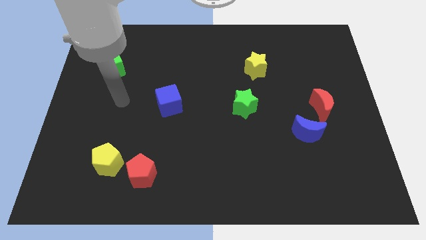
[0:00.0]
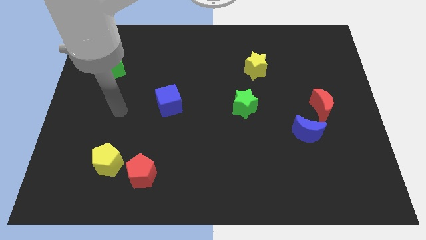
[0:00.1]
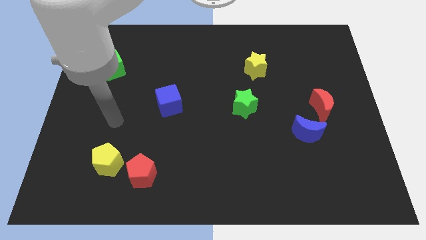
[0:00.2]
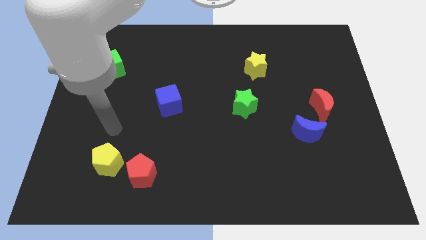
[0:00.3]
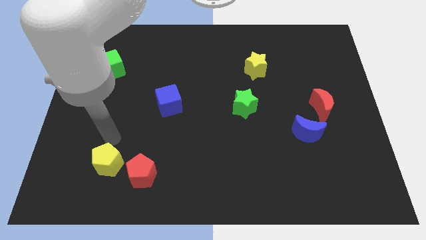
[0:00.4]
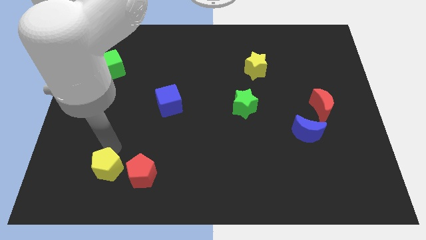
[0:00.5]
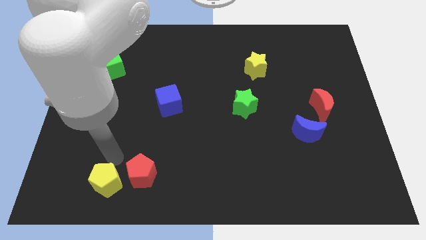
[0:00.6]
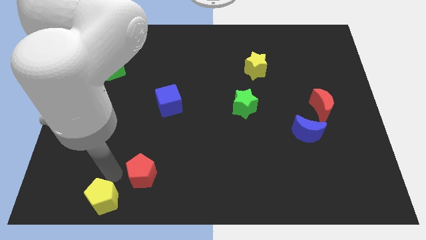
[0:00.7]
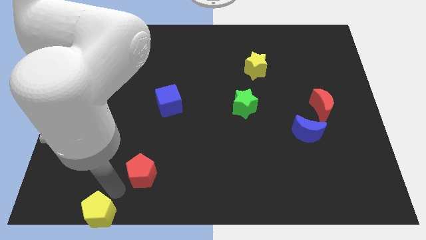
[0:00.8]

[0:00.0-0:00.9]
separate the red pentagon from the yellow pentagon

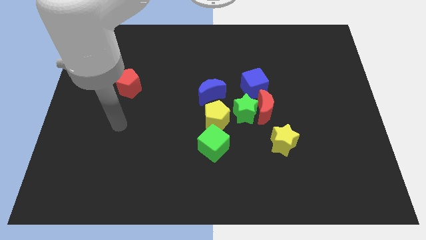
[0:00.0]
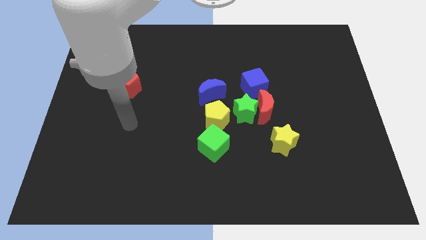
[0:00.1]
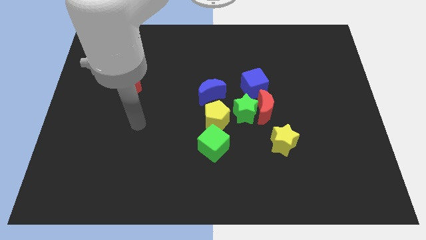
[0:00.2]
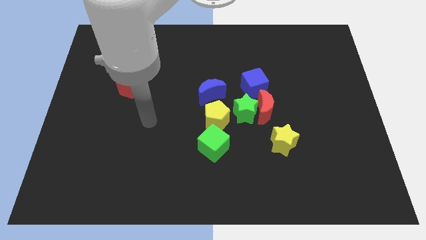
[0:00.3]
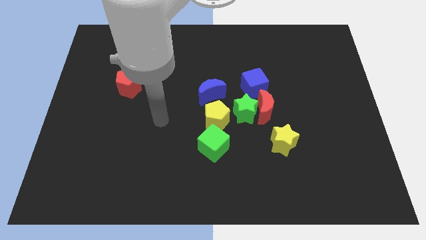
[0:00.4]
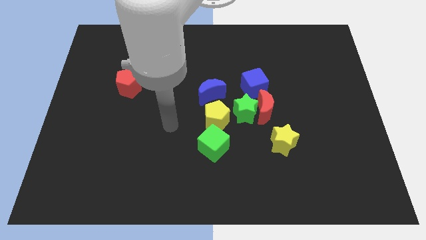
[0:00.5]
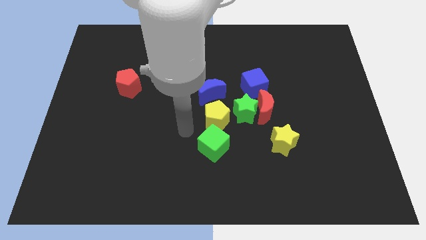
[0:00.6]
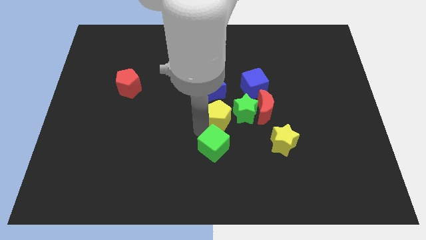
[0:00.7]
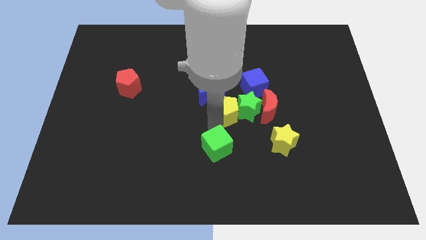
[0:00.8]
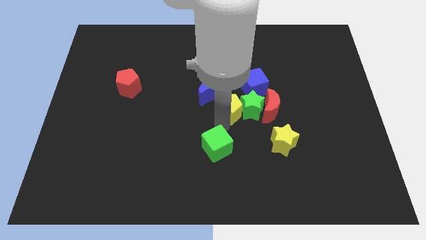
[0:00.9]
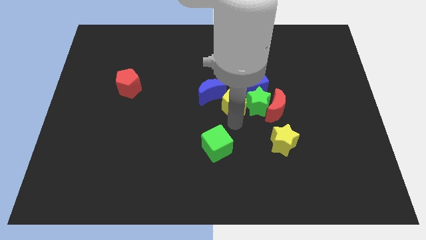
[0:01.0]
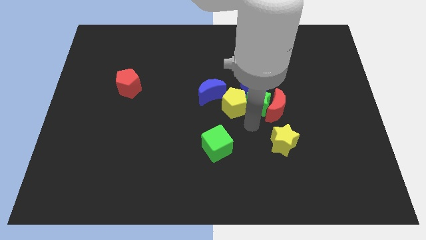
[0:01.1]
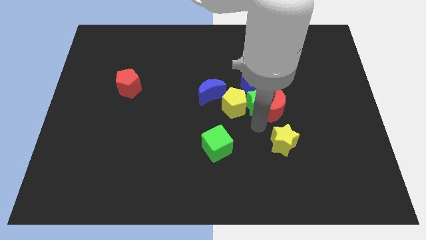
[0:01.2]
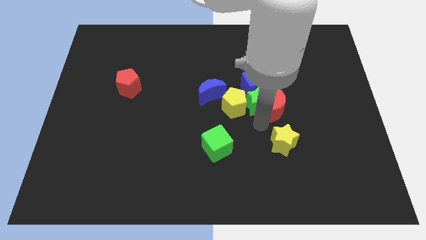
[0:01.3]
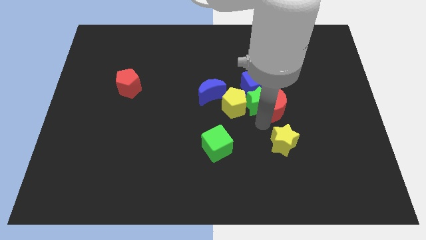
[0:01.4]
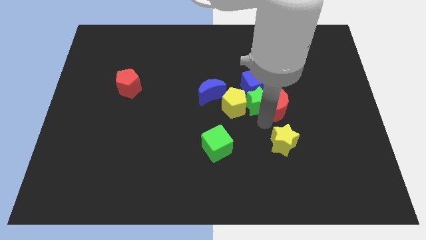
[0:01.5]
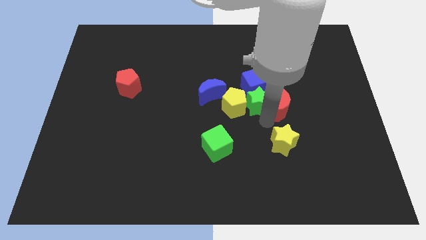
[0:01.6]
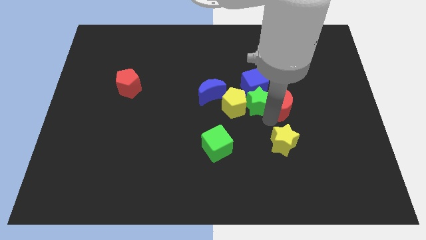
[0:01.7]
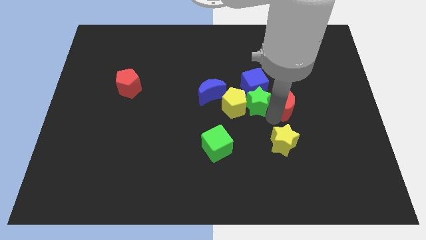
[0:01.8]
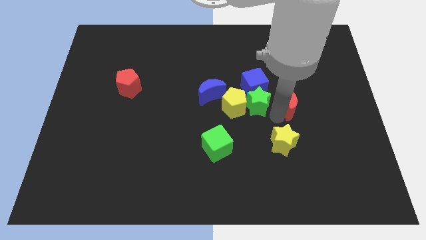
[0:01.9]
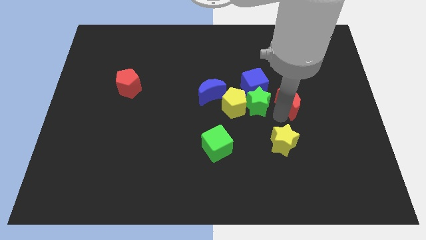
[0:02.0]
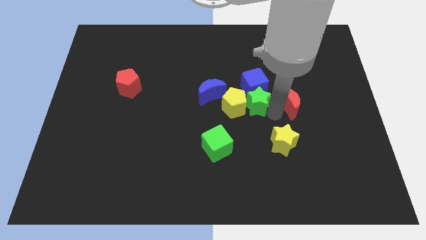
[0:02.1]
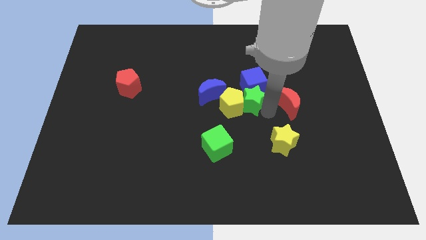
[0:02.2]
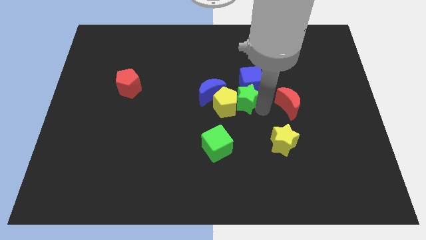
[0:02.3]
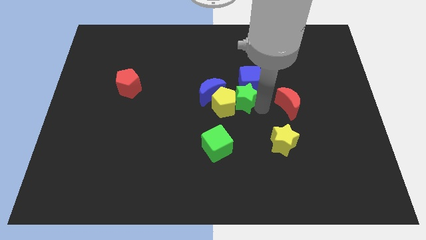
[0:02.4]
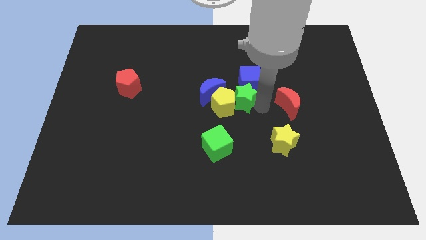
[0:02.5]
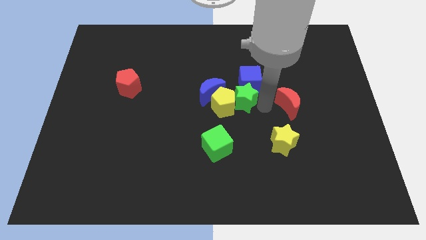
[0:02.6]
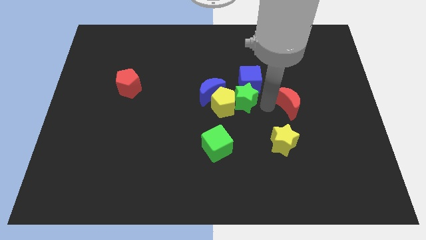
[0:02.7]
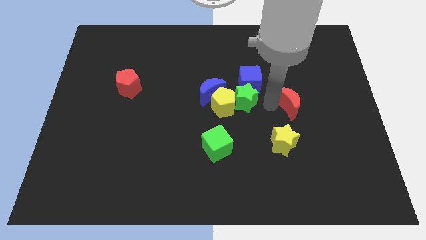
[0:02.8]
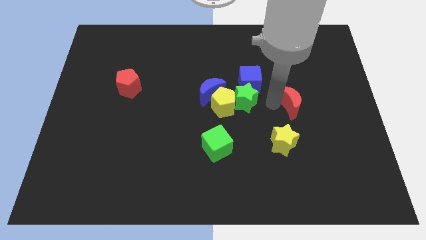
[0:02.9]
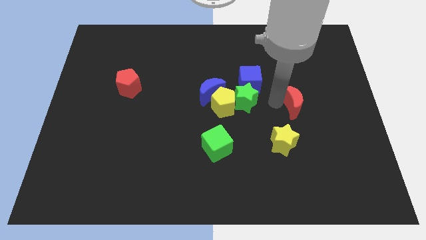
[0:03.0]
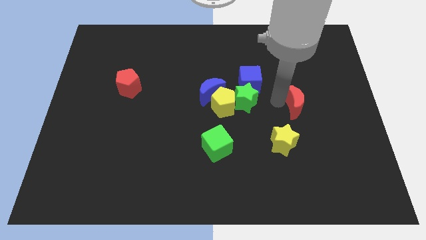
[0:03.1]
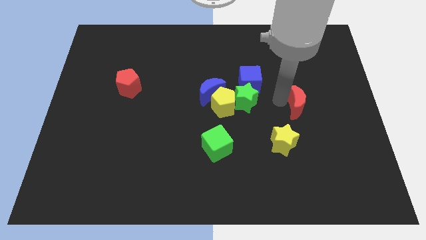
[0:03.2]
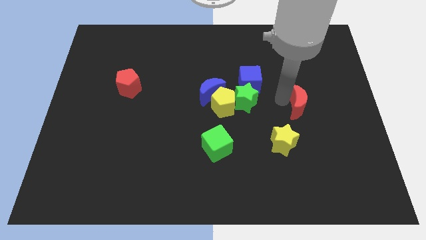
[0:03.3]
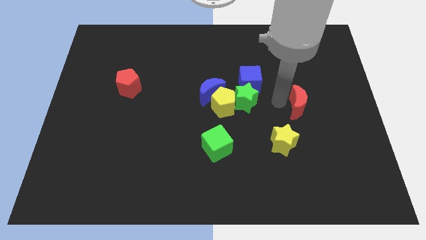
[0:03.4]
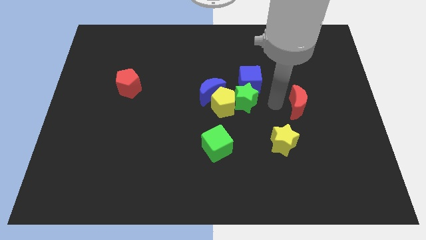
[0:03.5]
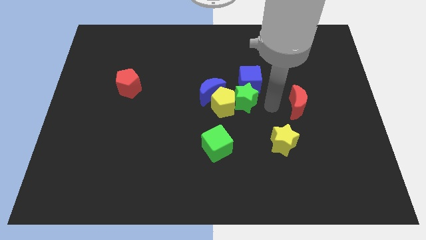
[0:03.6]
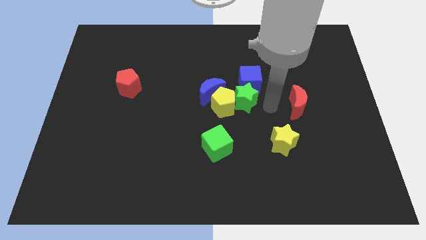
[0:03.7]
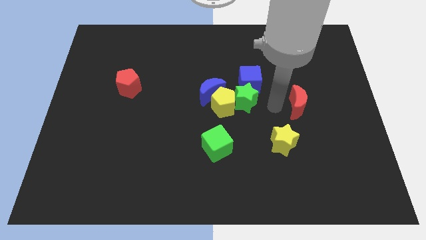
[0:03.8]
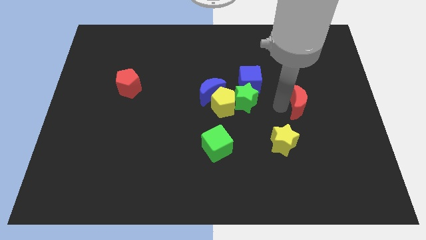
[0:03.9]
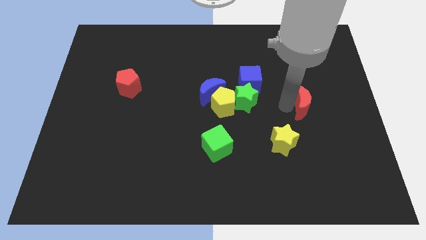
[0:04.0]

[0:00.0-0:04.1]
pull the red moon apart from the group of blocks

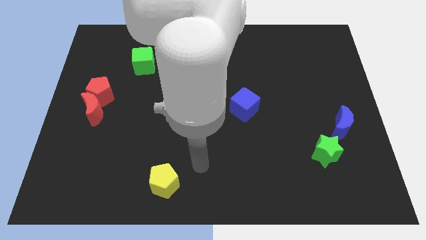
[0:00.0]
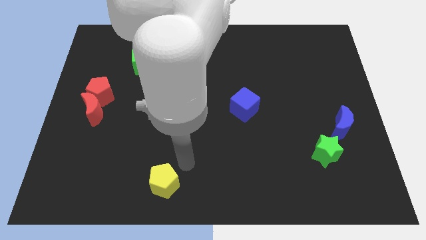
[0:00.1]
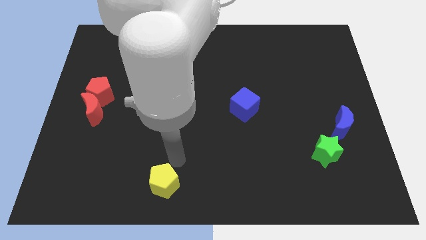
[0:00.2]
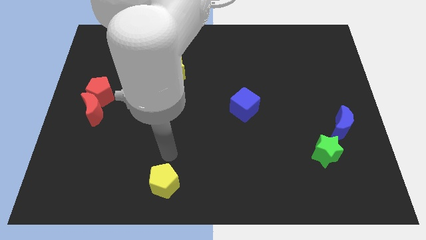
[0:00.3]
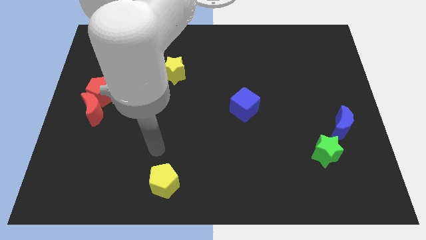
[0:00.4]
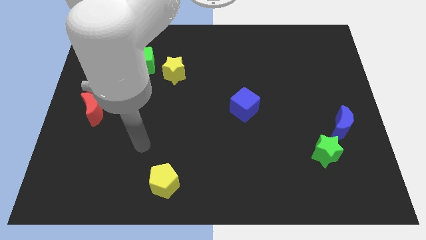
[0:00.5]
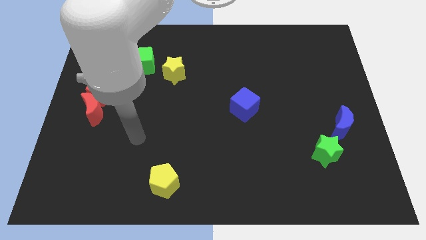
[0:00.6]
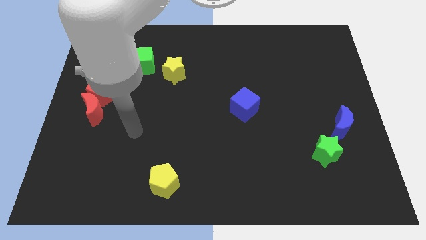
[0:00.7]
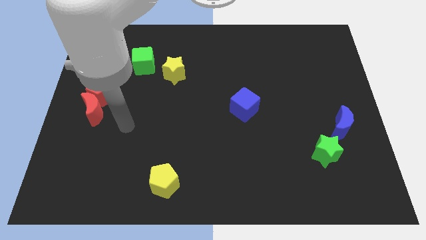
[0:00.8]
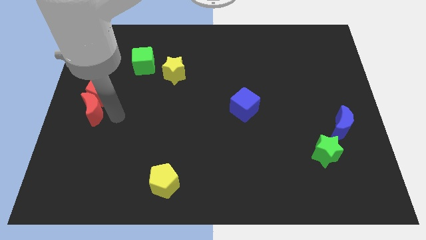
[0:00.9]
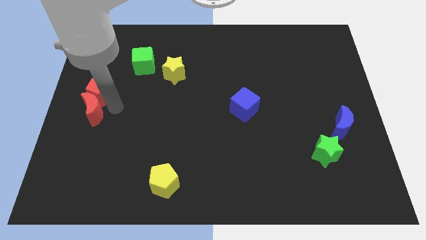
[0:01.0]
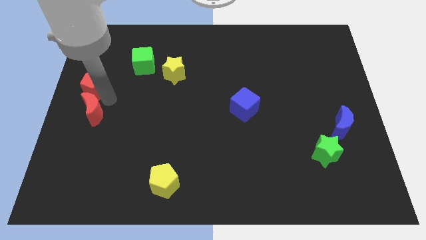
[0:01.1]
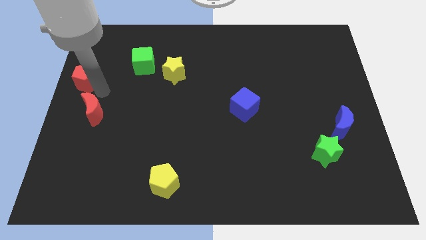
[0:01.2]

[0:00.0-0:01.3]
pull the red moon apart from the red pentagon

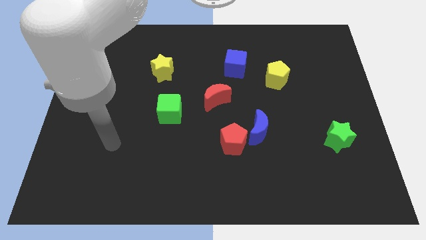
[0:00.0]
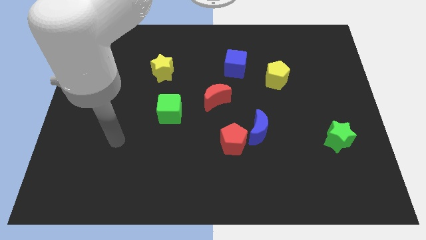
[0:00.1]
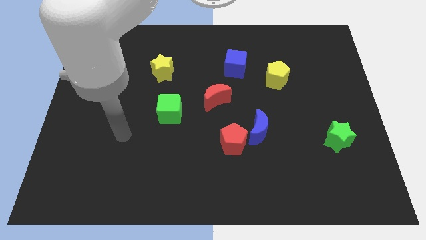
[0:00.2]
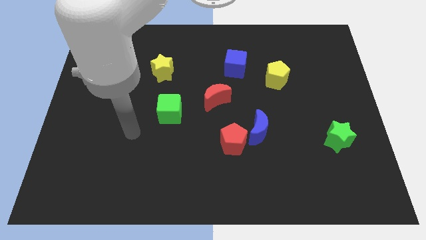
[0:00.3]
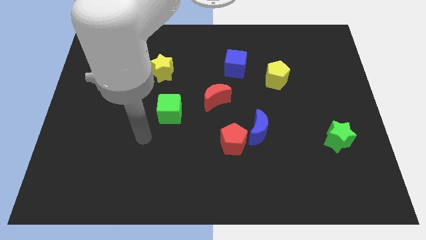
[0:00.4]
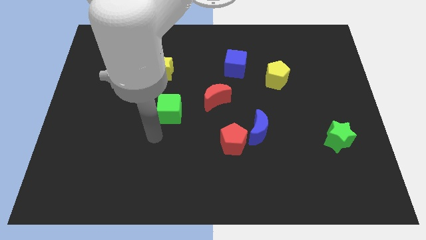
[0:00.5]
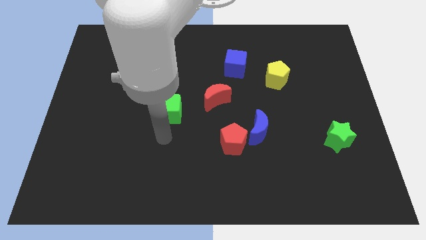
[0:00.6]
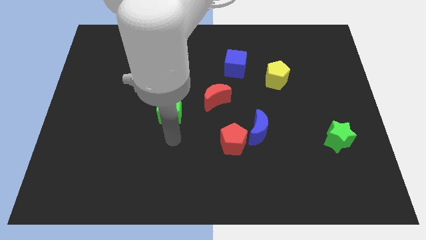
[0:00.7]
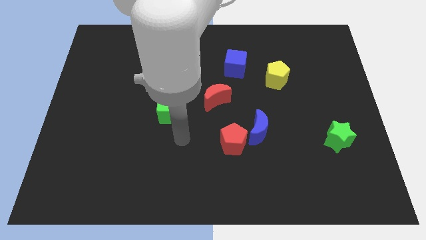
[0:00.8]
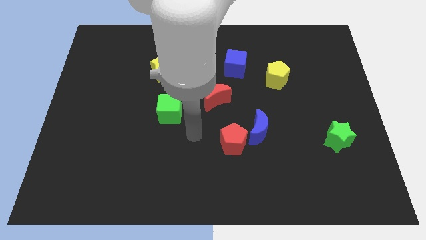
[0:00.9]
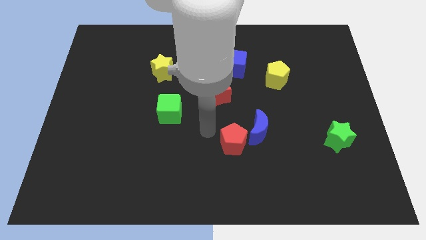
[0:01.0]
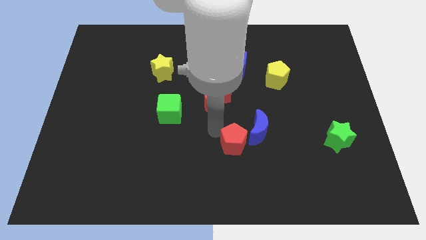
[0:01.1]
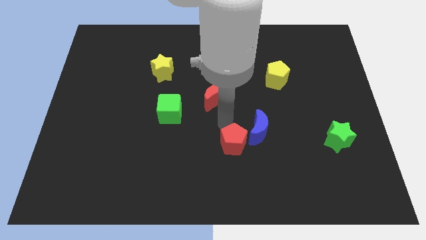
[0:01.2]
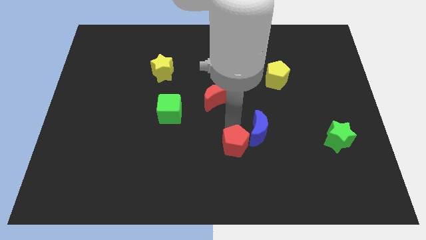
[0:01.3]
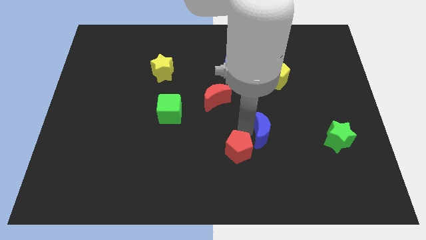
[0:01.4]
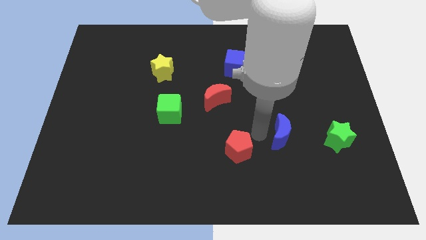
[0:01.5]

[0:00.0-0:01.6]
move the red pentagon away from the blue moon

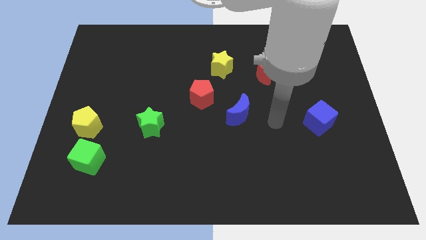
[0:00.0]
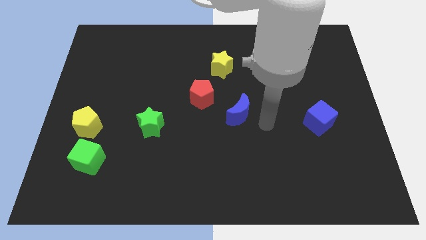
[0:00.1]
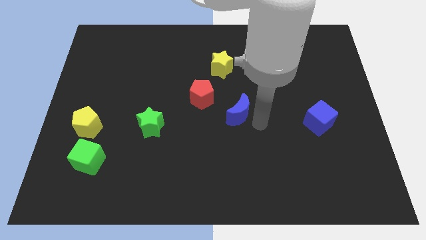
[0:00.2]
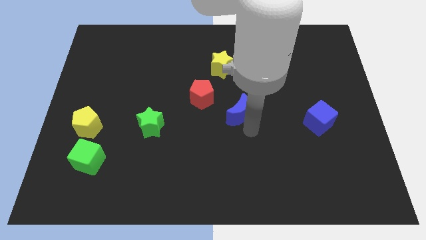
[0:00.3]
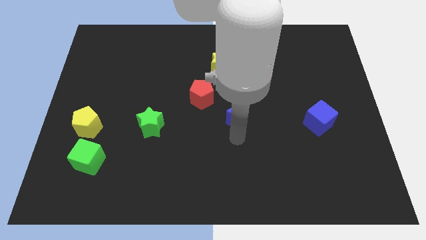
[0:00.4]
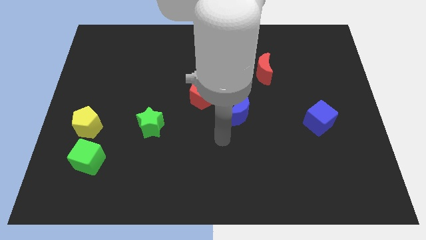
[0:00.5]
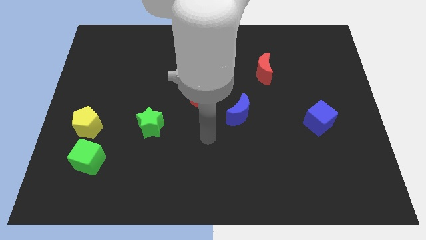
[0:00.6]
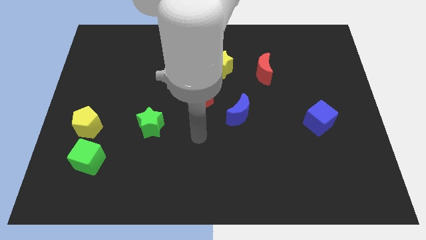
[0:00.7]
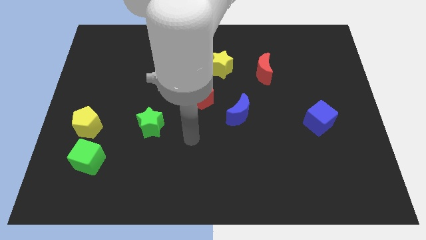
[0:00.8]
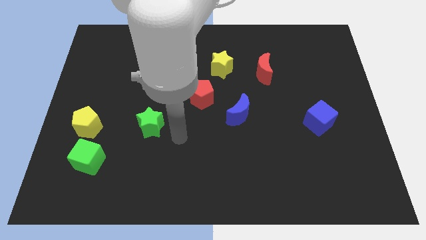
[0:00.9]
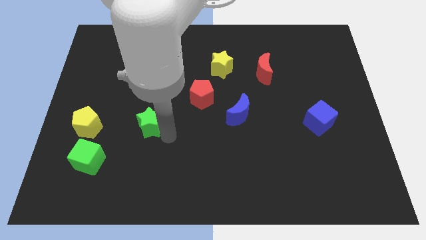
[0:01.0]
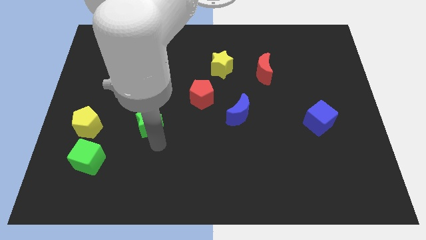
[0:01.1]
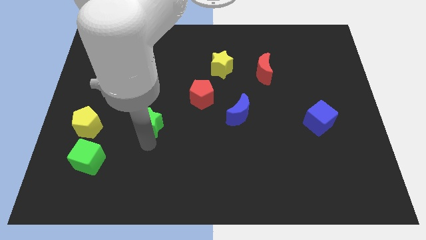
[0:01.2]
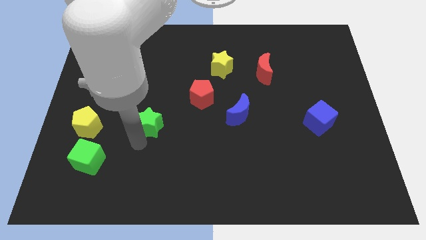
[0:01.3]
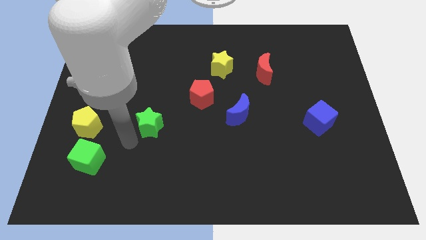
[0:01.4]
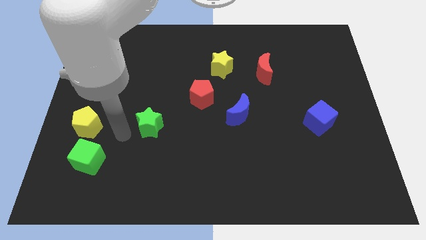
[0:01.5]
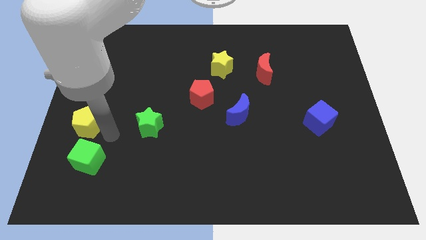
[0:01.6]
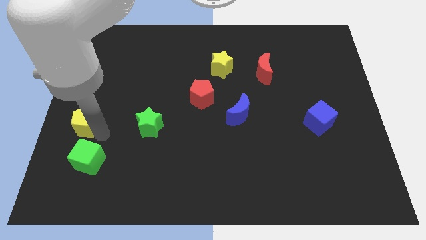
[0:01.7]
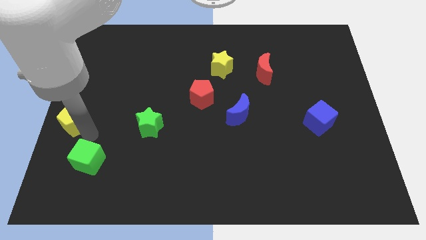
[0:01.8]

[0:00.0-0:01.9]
pull the green cube apart from the yellow pentagon
